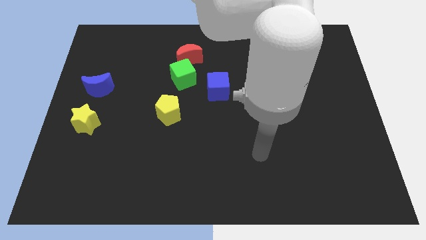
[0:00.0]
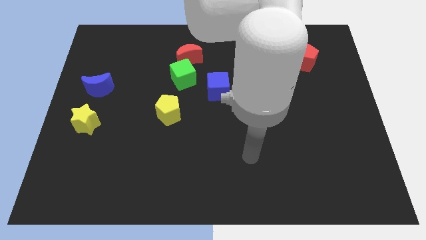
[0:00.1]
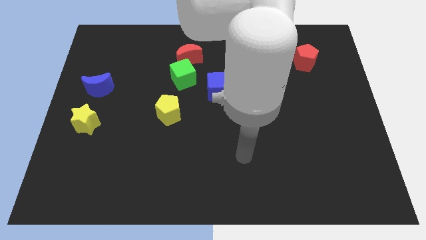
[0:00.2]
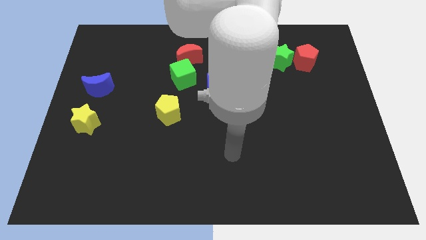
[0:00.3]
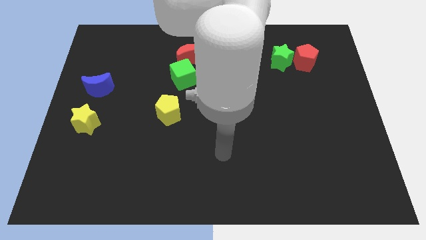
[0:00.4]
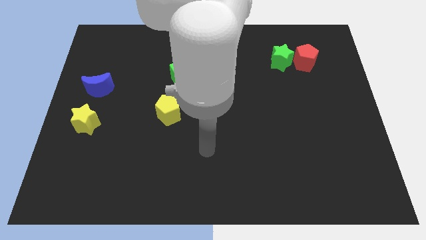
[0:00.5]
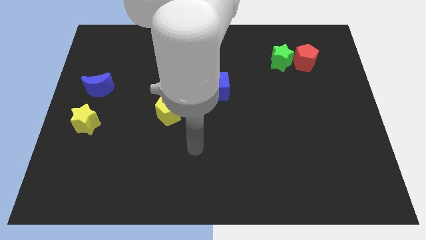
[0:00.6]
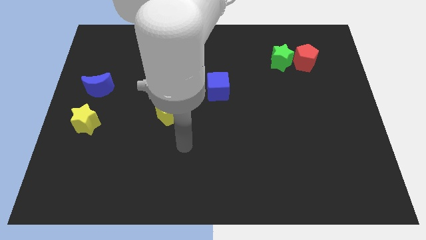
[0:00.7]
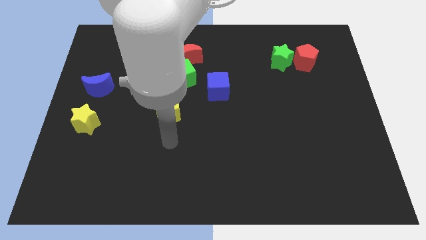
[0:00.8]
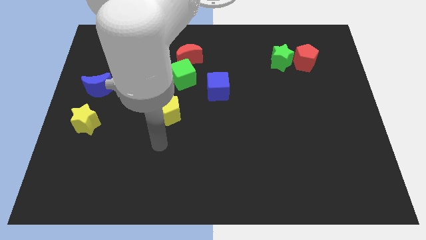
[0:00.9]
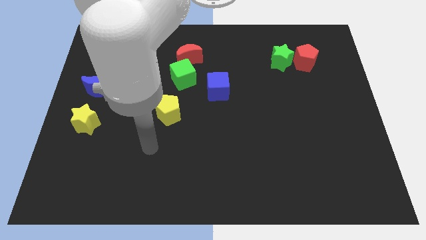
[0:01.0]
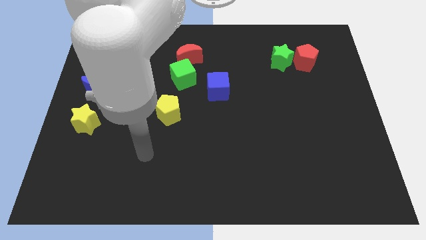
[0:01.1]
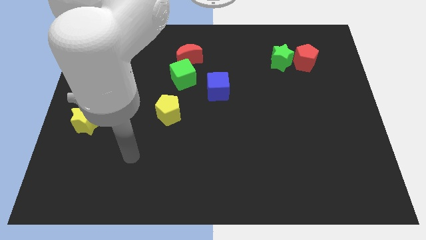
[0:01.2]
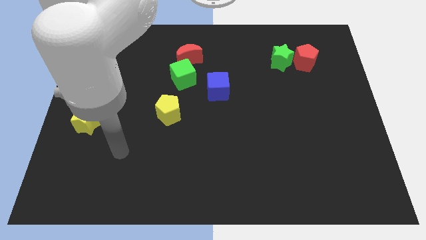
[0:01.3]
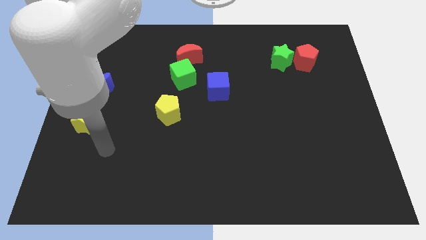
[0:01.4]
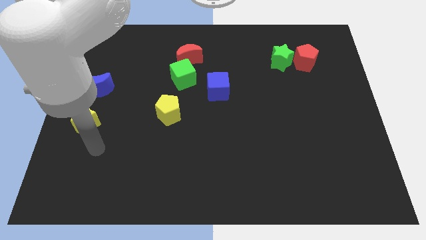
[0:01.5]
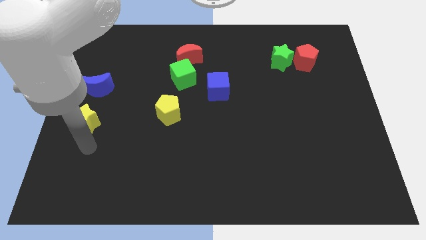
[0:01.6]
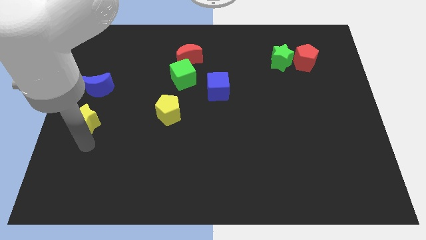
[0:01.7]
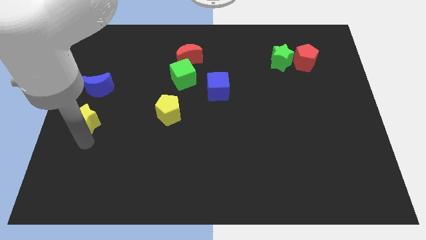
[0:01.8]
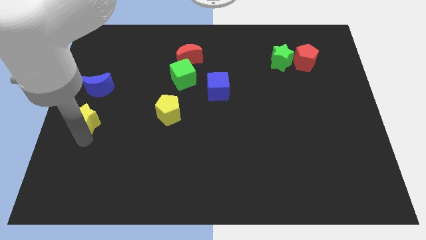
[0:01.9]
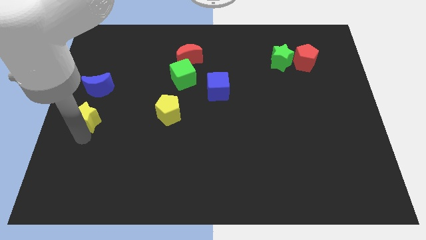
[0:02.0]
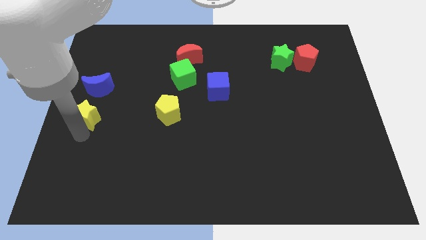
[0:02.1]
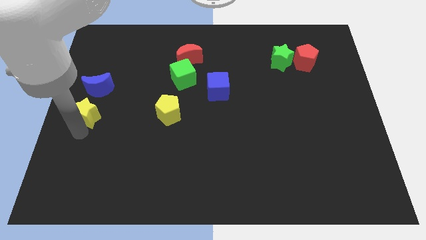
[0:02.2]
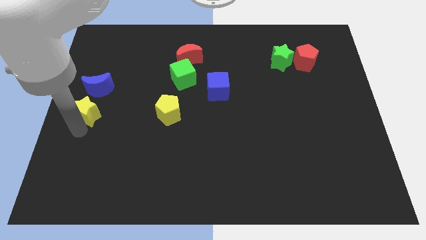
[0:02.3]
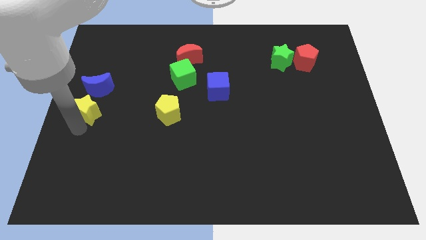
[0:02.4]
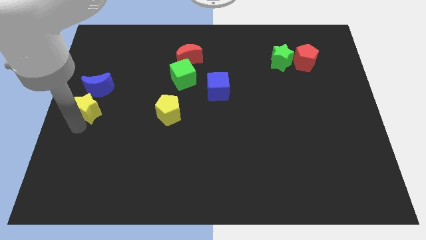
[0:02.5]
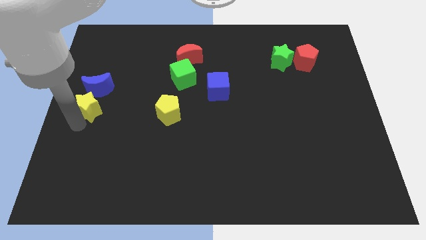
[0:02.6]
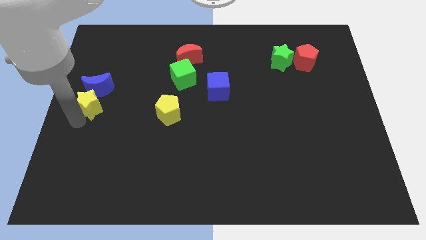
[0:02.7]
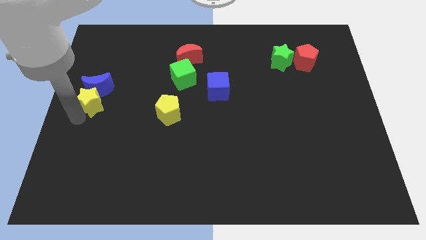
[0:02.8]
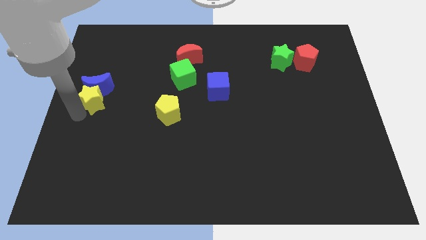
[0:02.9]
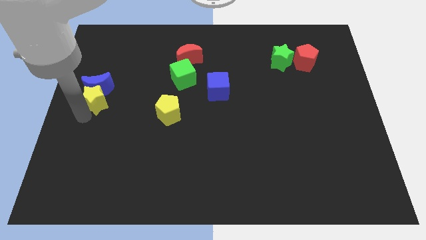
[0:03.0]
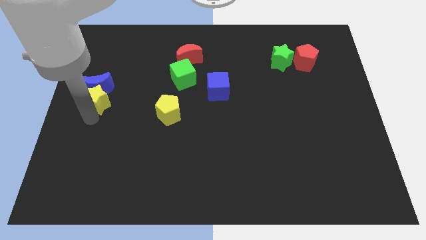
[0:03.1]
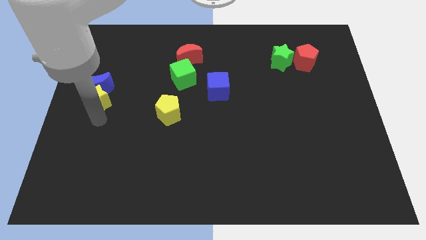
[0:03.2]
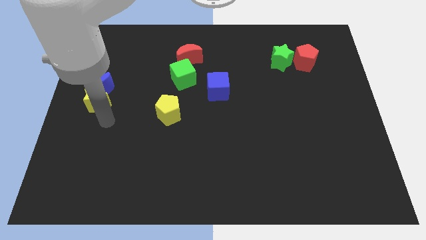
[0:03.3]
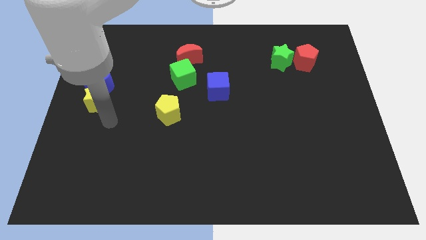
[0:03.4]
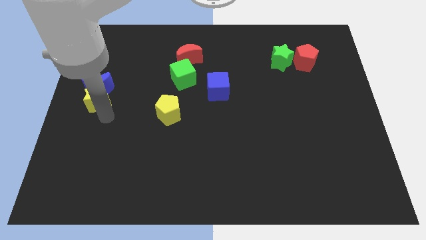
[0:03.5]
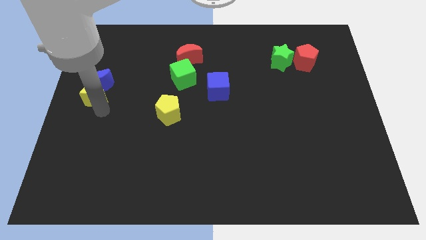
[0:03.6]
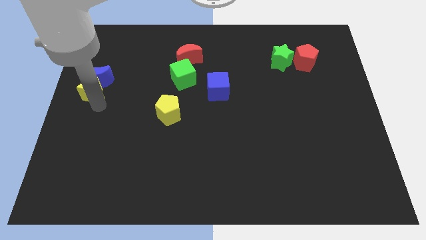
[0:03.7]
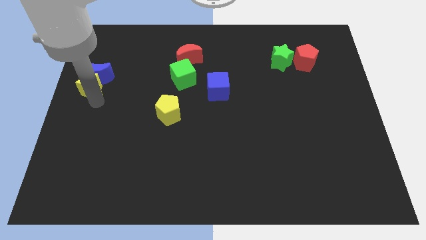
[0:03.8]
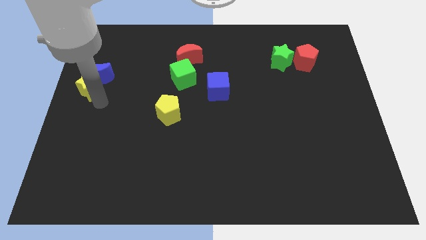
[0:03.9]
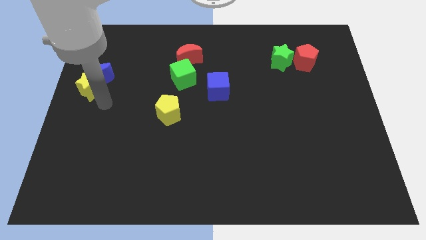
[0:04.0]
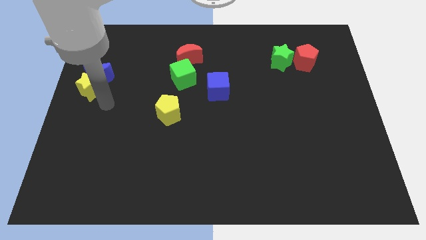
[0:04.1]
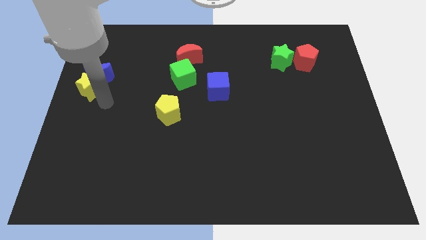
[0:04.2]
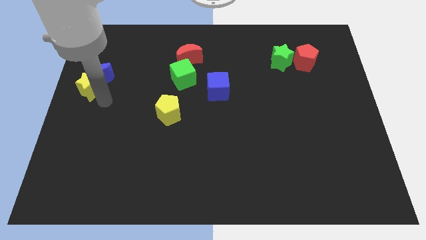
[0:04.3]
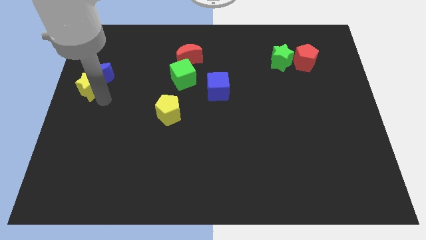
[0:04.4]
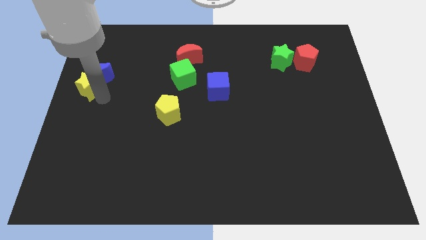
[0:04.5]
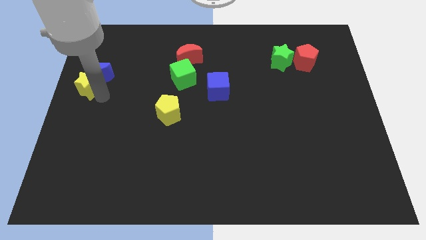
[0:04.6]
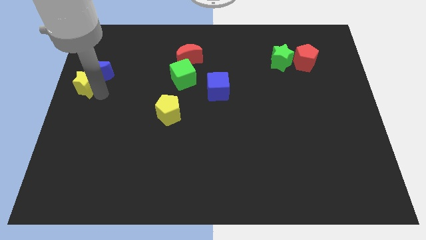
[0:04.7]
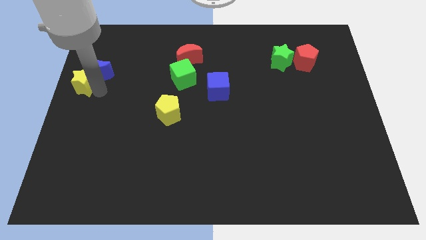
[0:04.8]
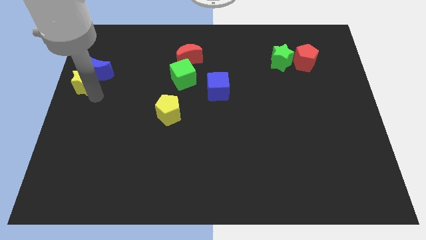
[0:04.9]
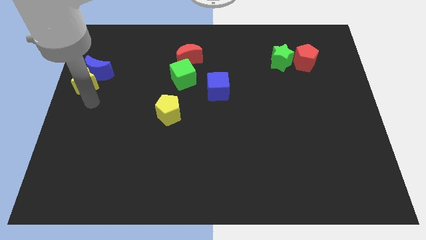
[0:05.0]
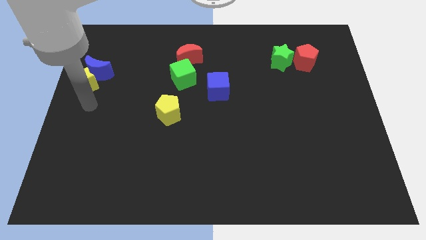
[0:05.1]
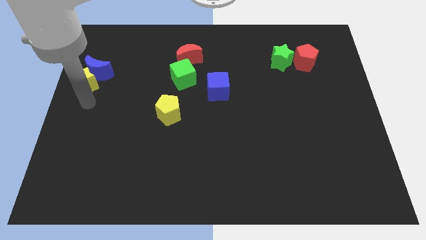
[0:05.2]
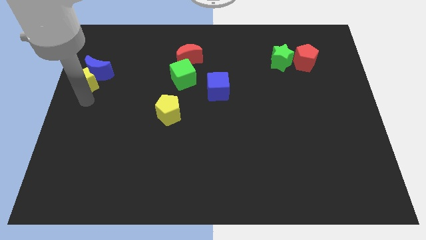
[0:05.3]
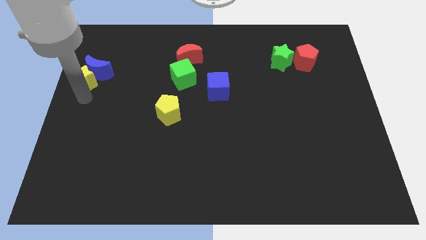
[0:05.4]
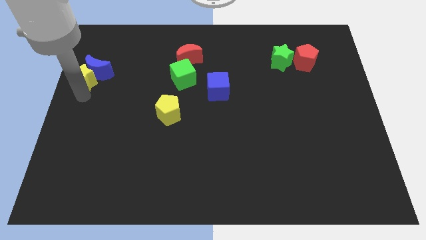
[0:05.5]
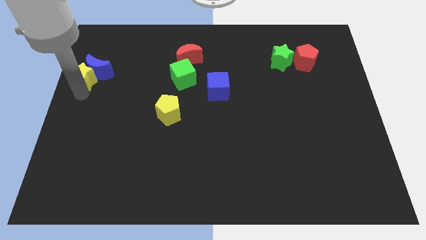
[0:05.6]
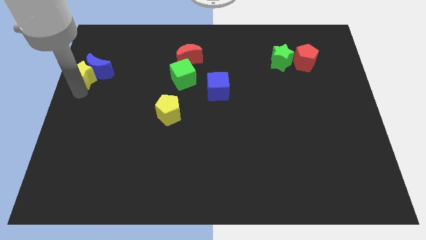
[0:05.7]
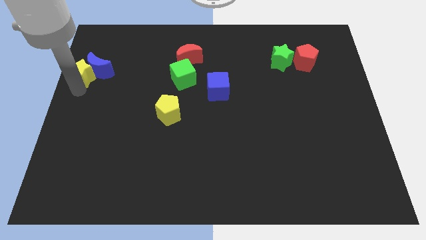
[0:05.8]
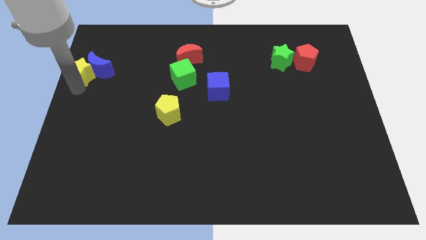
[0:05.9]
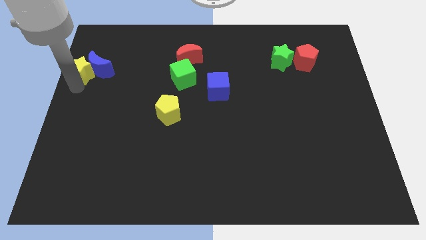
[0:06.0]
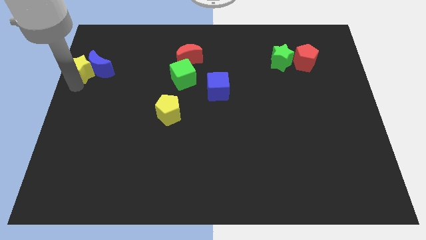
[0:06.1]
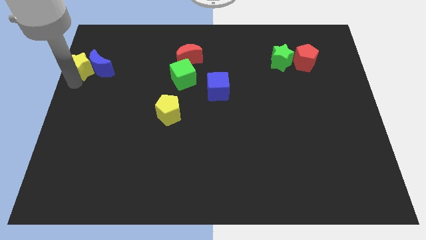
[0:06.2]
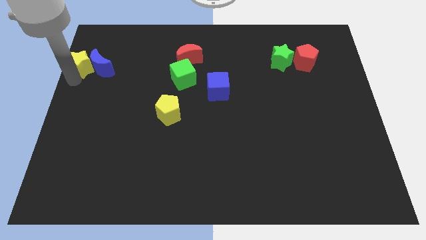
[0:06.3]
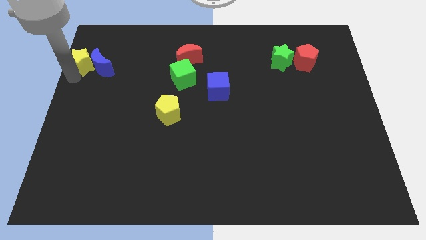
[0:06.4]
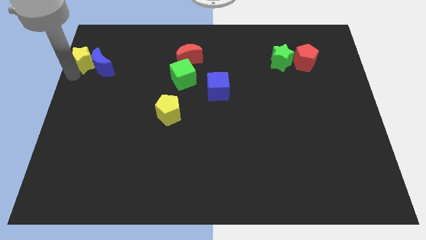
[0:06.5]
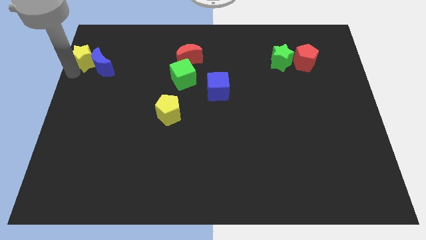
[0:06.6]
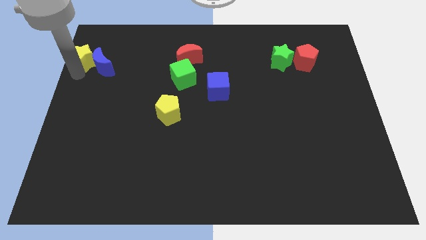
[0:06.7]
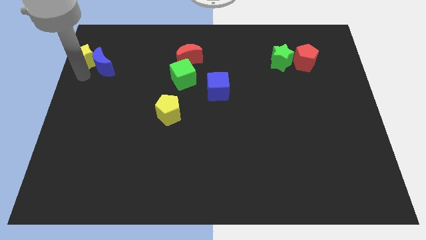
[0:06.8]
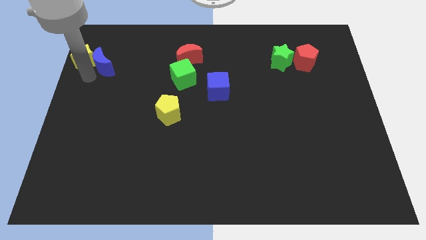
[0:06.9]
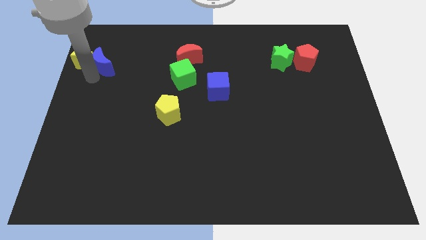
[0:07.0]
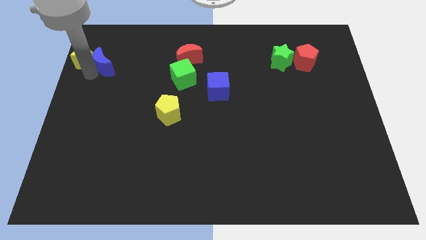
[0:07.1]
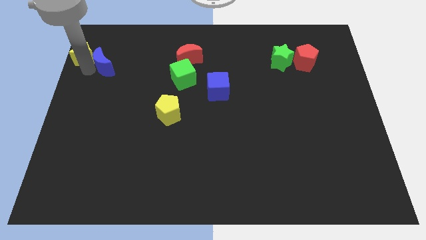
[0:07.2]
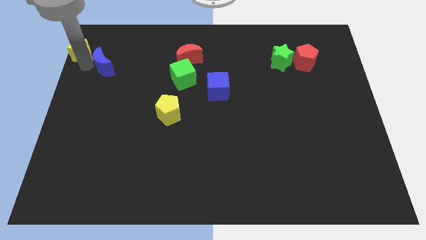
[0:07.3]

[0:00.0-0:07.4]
move the yellow star to the top left corner
